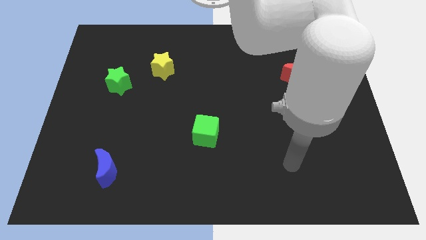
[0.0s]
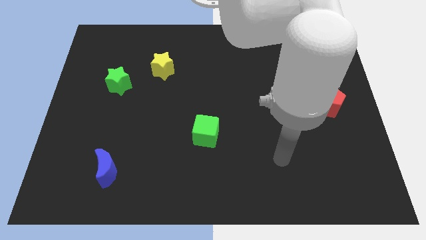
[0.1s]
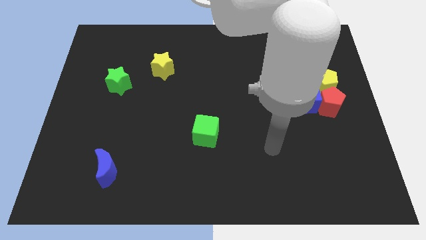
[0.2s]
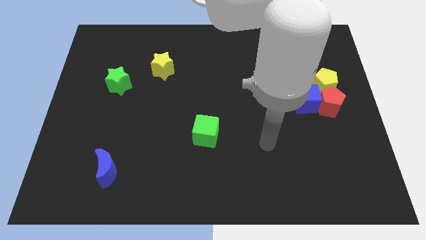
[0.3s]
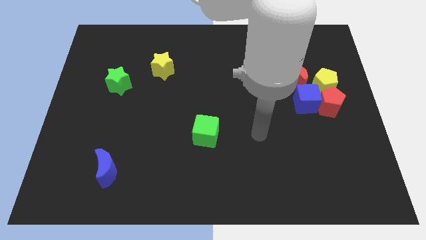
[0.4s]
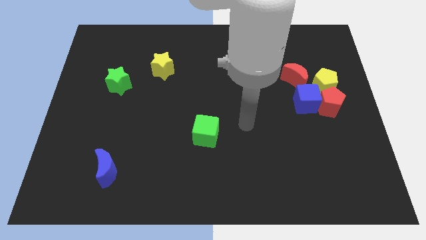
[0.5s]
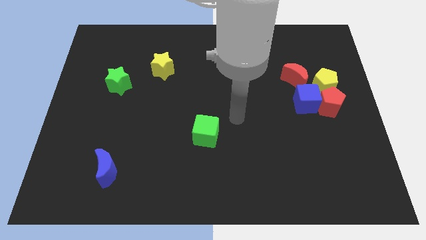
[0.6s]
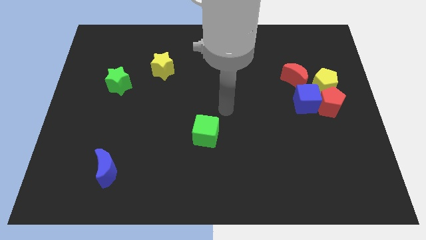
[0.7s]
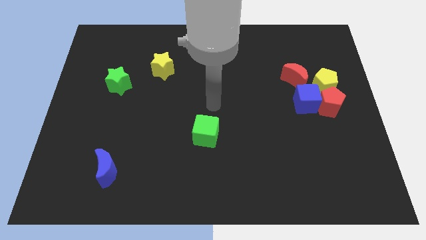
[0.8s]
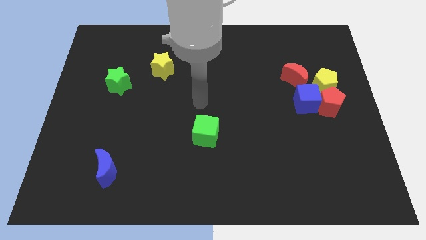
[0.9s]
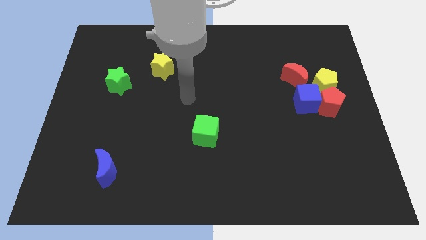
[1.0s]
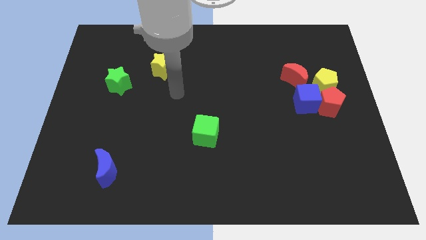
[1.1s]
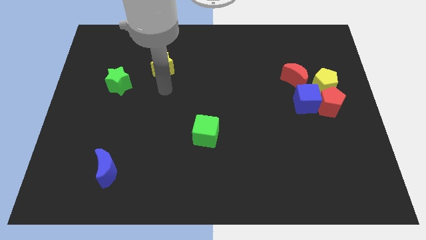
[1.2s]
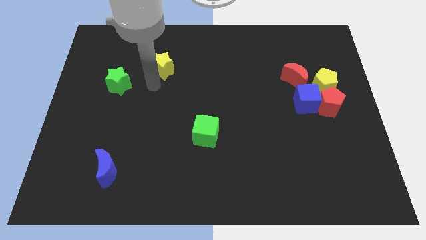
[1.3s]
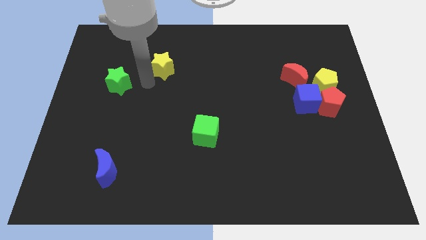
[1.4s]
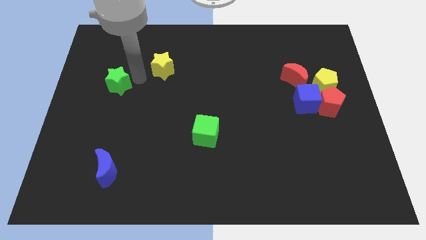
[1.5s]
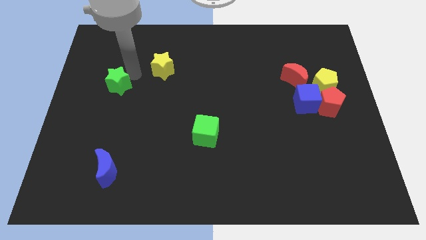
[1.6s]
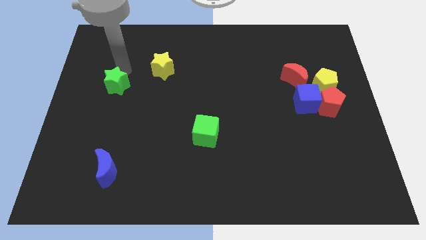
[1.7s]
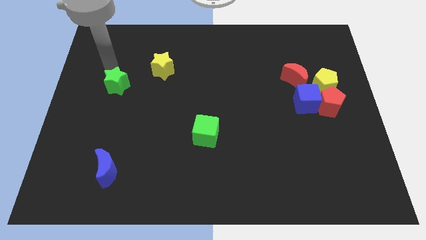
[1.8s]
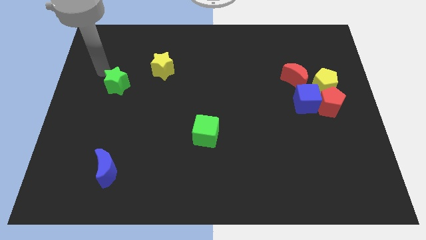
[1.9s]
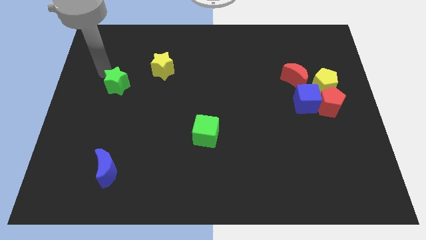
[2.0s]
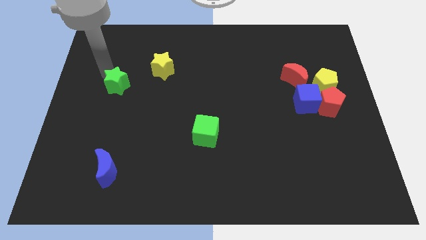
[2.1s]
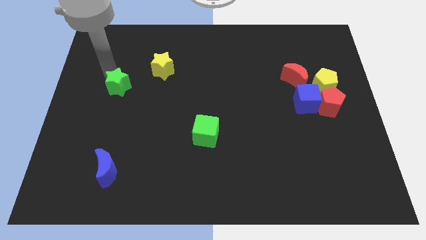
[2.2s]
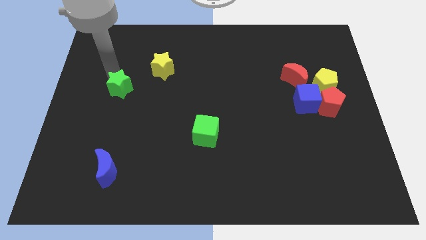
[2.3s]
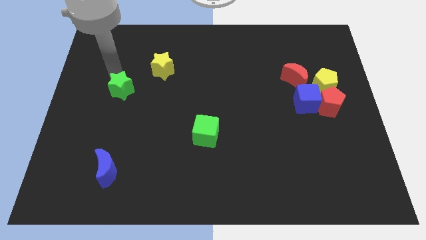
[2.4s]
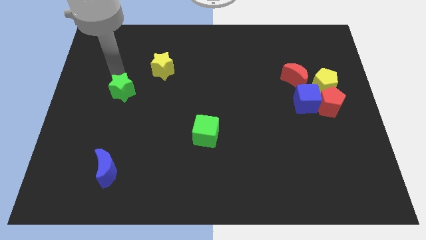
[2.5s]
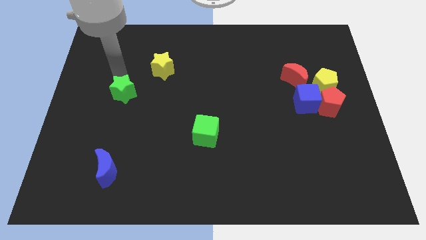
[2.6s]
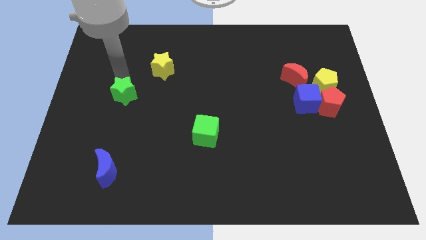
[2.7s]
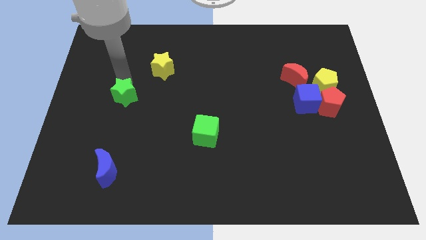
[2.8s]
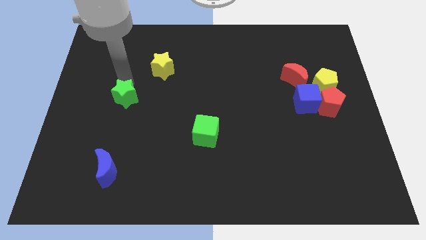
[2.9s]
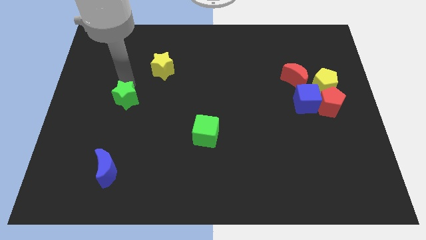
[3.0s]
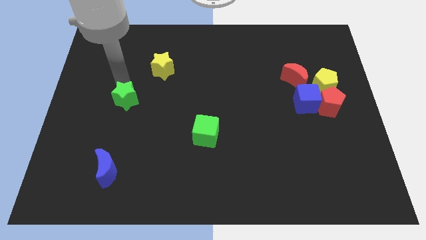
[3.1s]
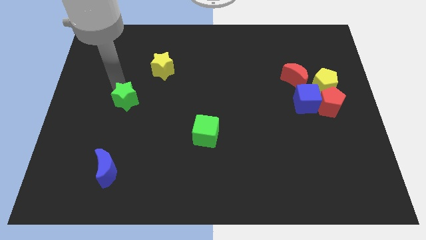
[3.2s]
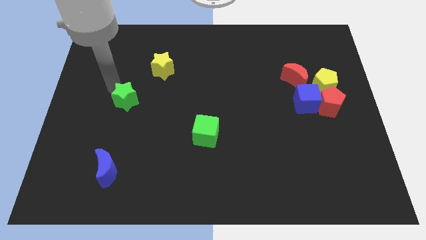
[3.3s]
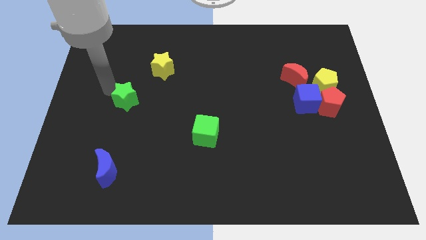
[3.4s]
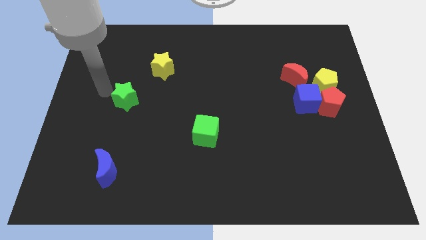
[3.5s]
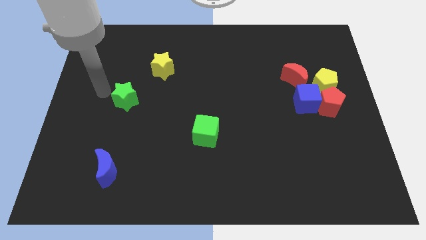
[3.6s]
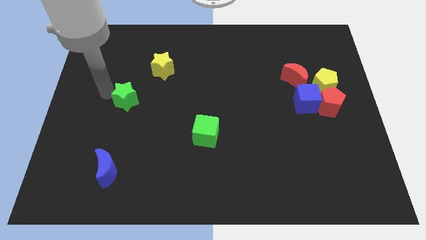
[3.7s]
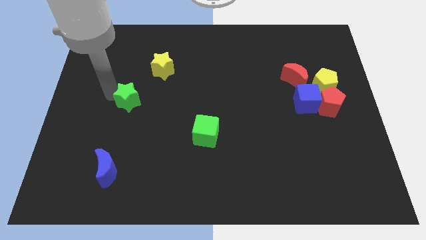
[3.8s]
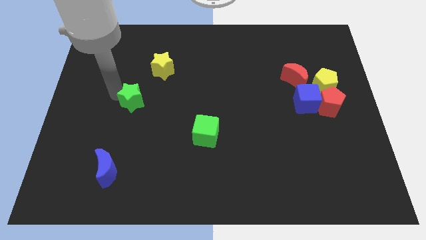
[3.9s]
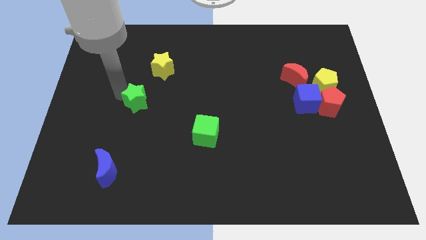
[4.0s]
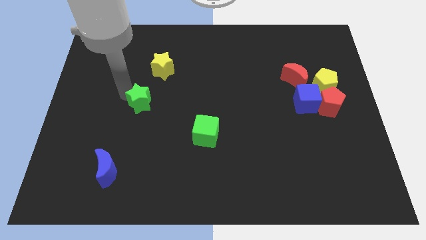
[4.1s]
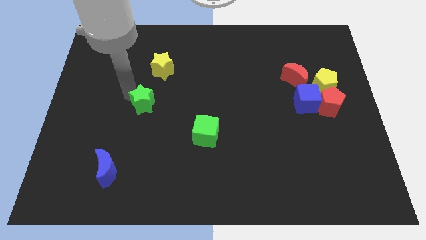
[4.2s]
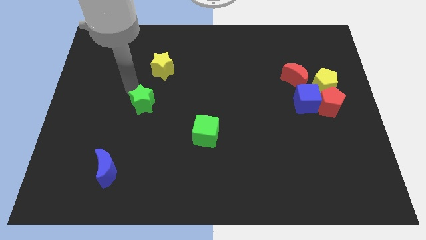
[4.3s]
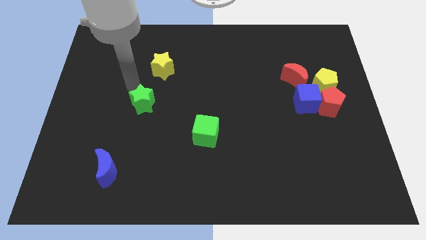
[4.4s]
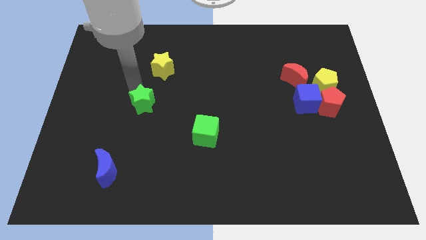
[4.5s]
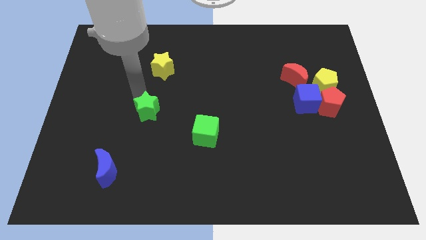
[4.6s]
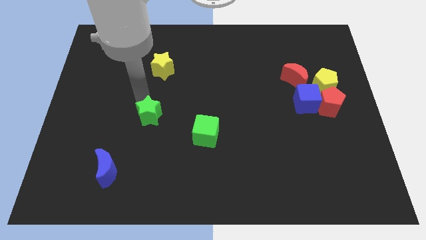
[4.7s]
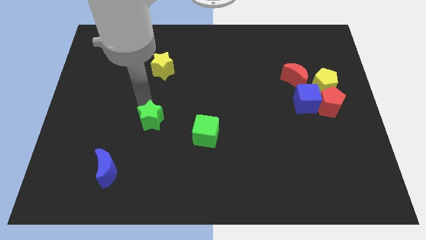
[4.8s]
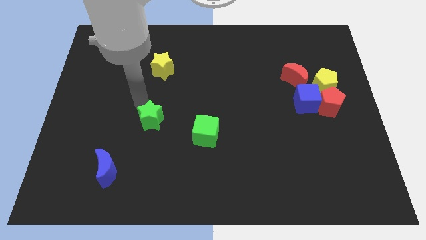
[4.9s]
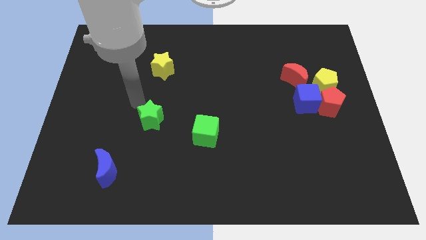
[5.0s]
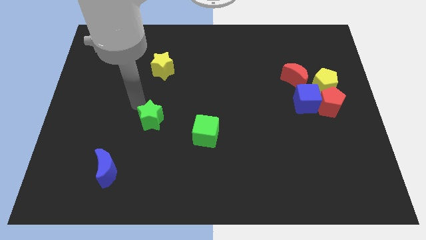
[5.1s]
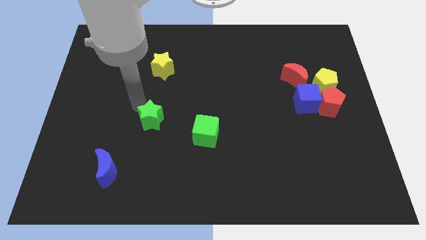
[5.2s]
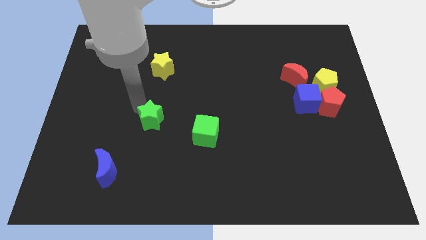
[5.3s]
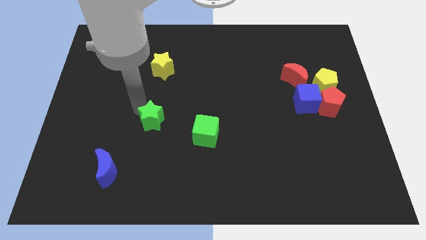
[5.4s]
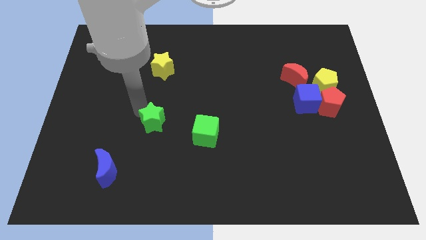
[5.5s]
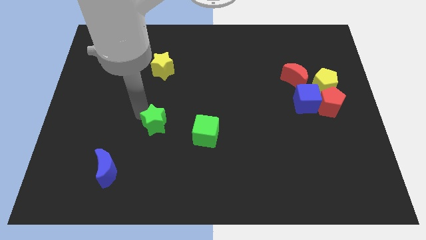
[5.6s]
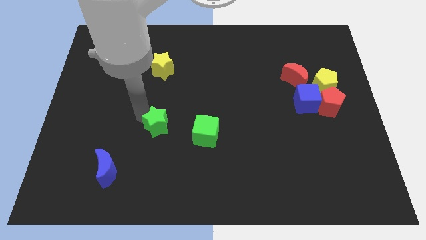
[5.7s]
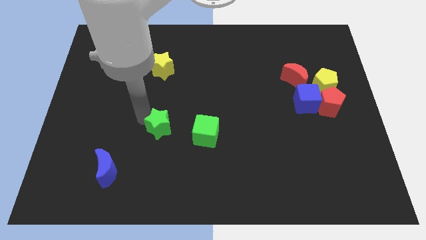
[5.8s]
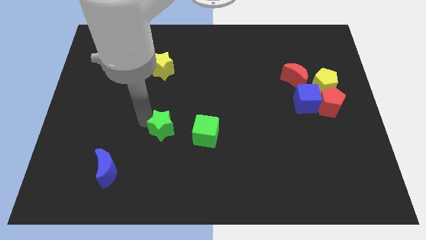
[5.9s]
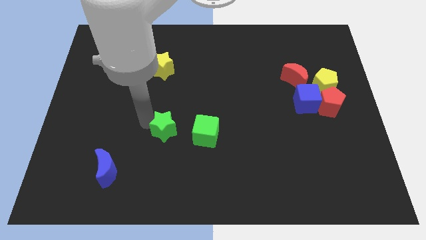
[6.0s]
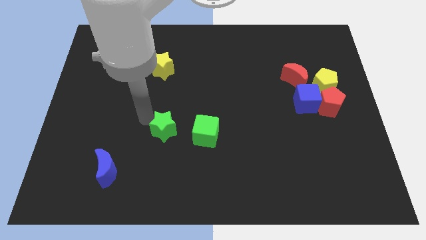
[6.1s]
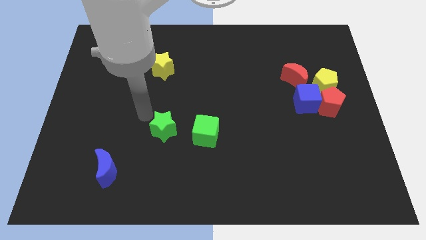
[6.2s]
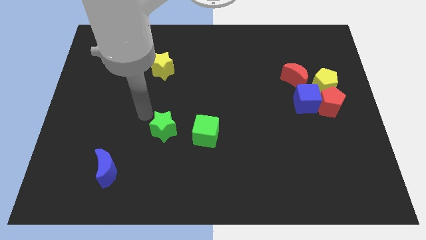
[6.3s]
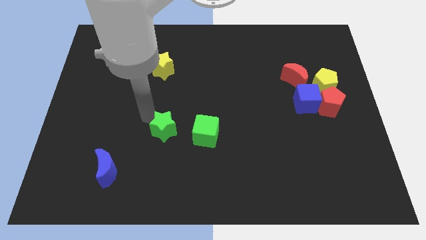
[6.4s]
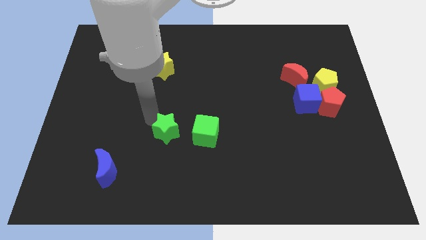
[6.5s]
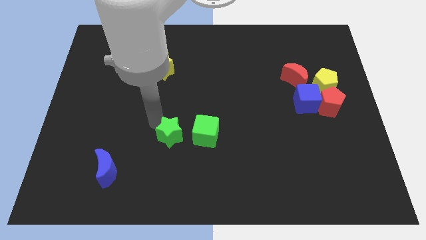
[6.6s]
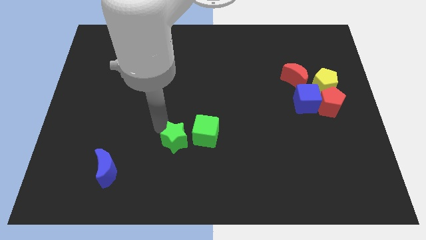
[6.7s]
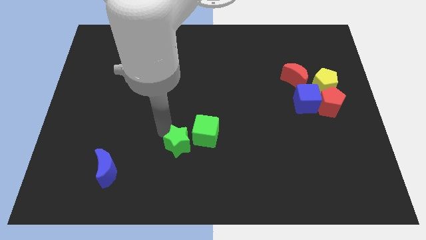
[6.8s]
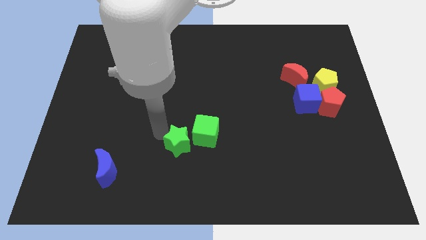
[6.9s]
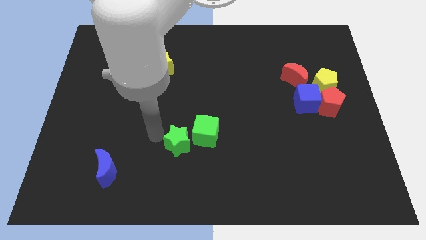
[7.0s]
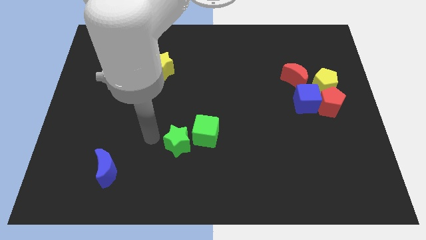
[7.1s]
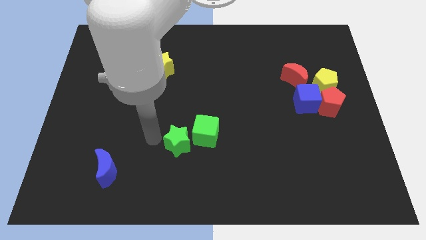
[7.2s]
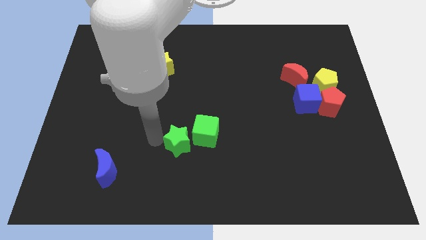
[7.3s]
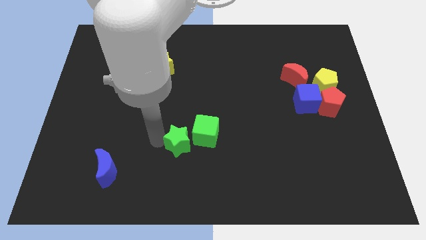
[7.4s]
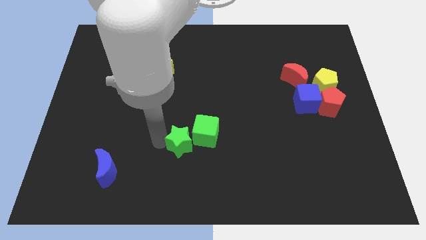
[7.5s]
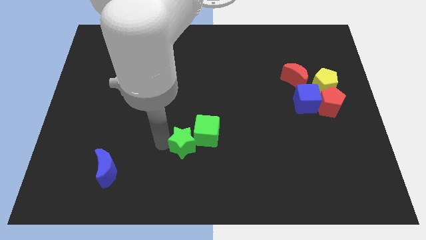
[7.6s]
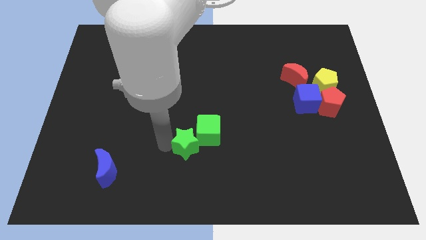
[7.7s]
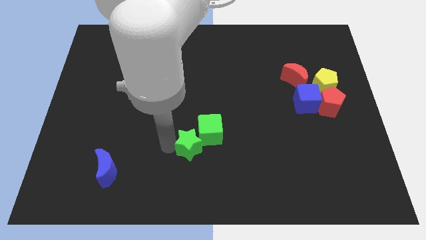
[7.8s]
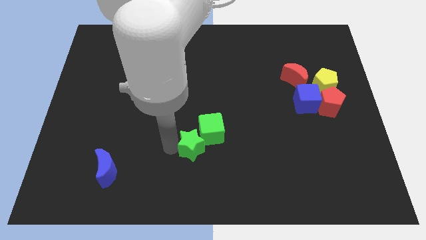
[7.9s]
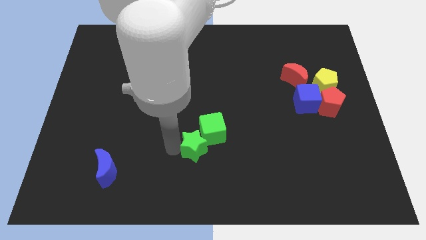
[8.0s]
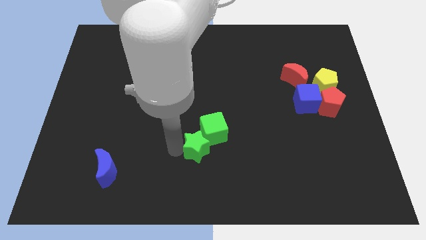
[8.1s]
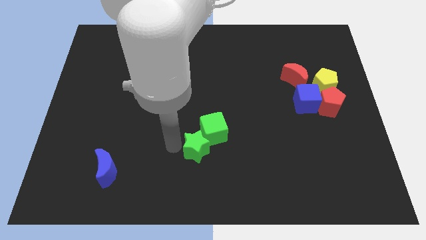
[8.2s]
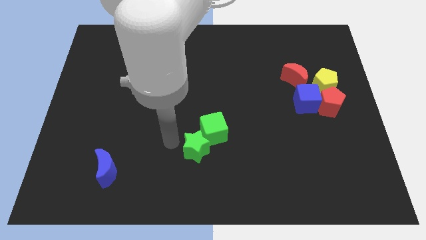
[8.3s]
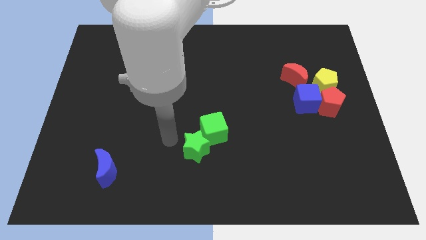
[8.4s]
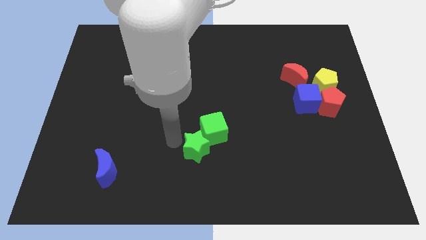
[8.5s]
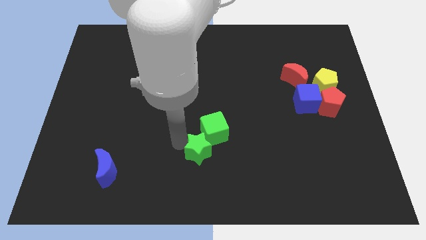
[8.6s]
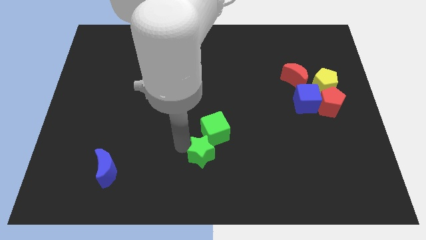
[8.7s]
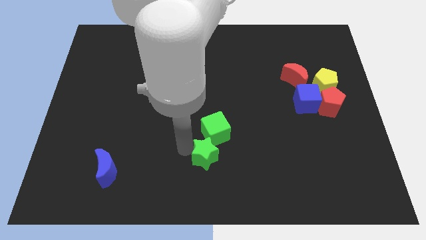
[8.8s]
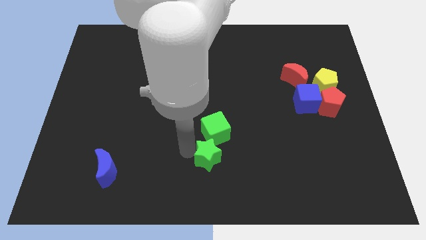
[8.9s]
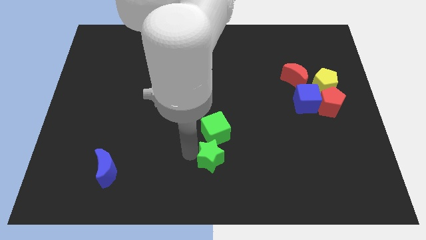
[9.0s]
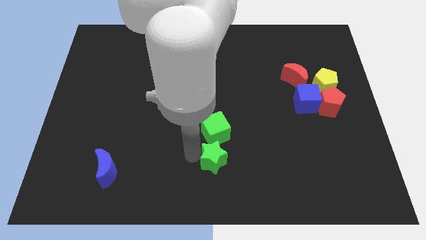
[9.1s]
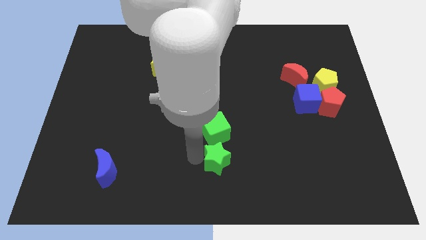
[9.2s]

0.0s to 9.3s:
push the green star to the bottom right side of the green cube
